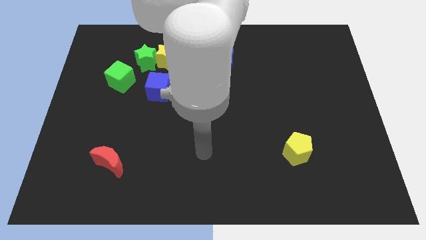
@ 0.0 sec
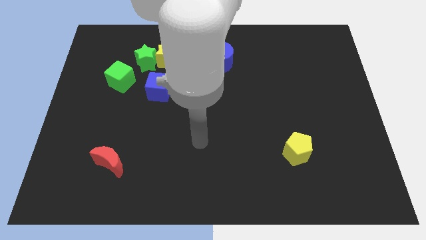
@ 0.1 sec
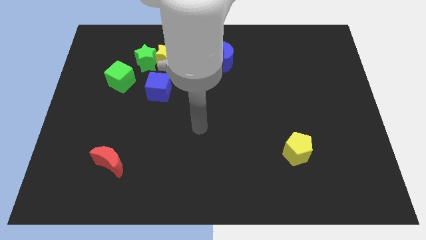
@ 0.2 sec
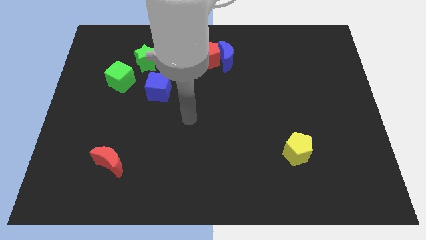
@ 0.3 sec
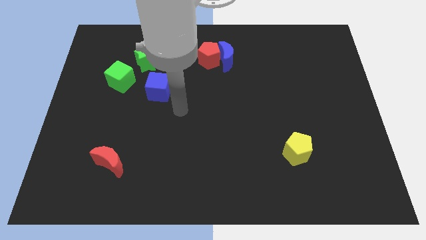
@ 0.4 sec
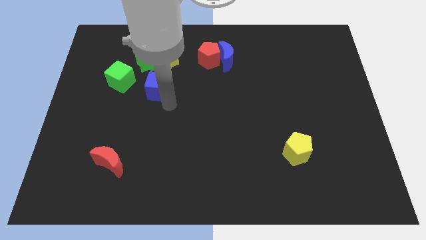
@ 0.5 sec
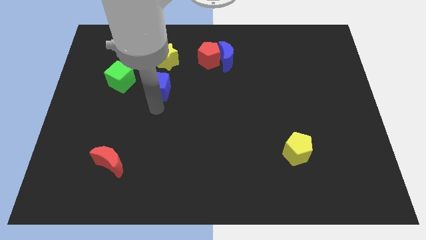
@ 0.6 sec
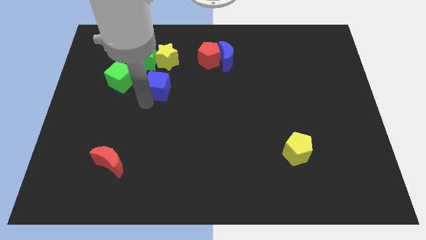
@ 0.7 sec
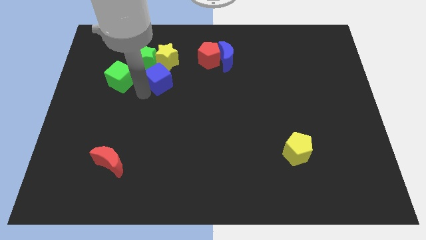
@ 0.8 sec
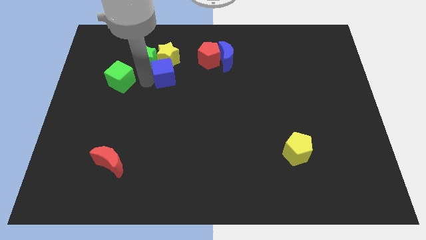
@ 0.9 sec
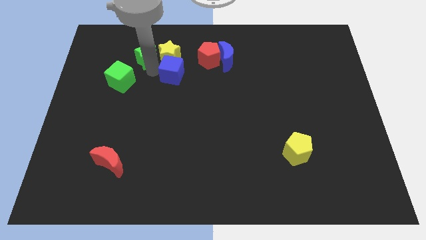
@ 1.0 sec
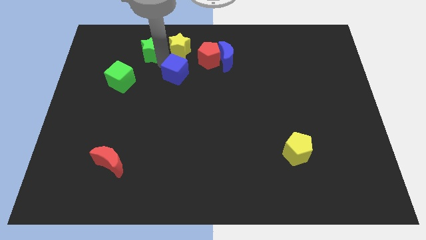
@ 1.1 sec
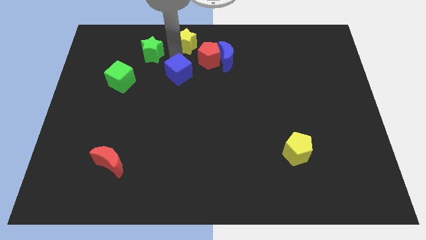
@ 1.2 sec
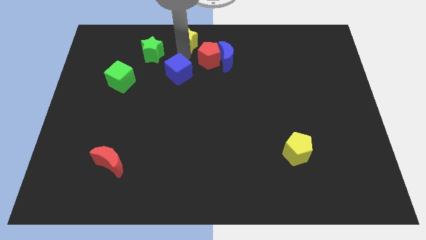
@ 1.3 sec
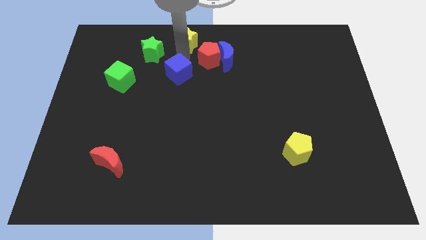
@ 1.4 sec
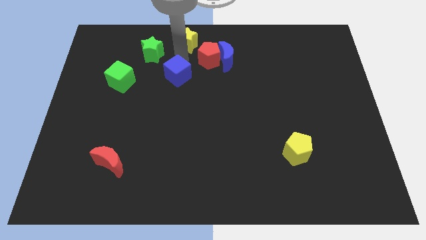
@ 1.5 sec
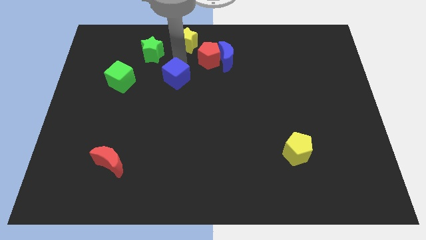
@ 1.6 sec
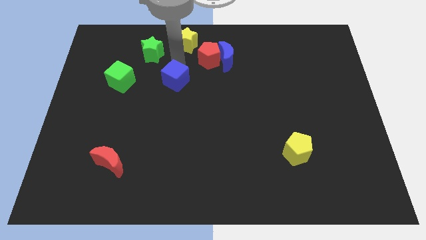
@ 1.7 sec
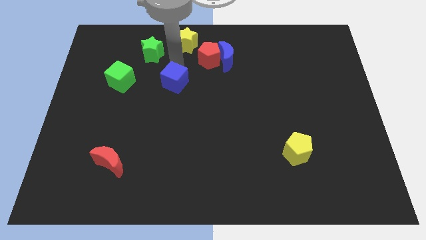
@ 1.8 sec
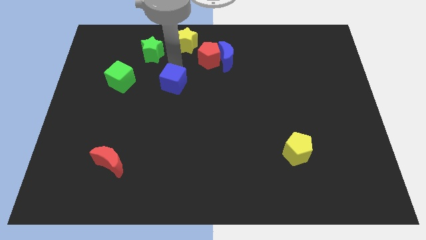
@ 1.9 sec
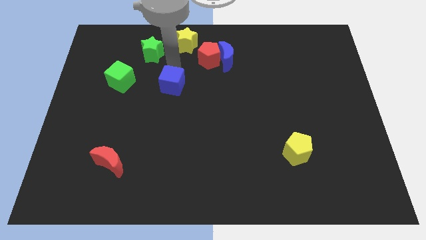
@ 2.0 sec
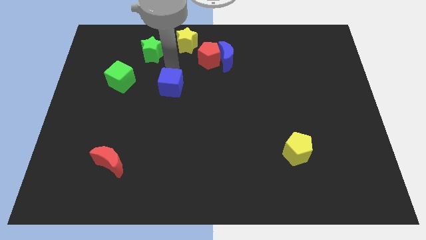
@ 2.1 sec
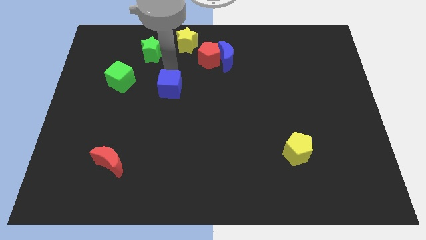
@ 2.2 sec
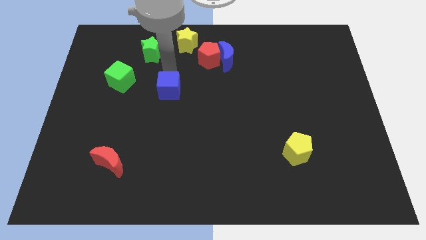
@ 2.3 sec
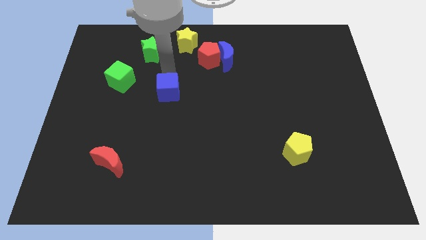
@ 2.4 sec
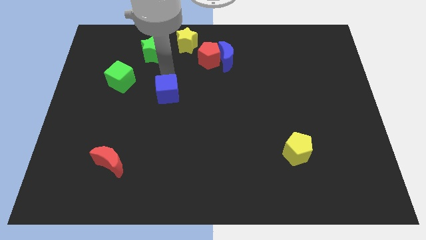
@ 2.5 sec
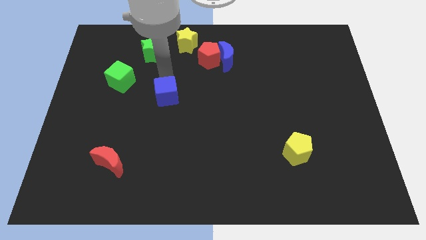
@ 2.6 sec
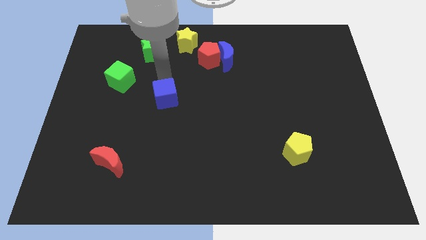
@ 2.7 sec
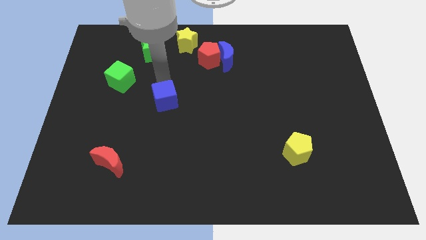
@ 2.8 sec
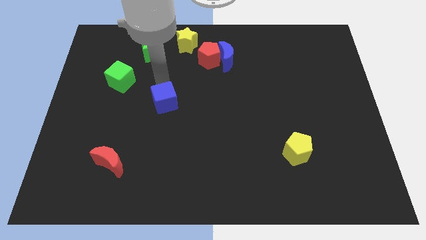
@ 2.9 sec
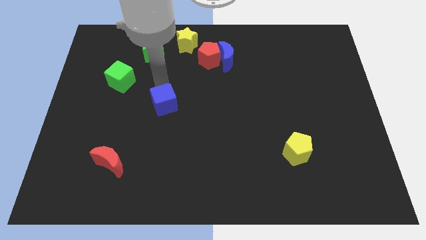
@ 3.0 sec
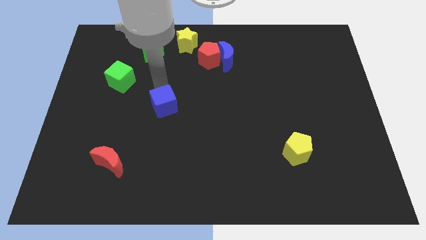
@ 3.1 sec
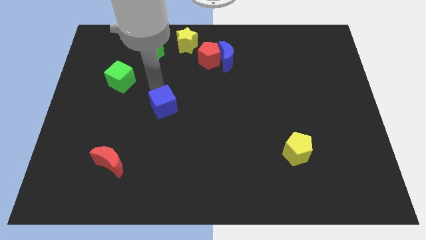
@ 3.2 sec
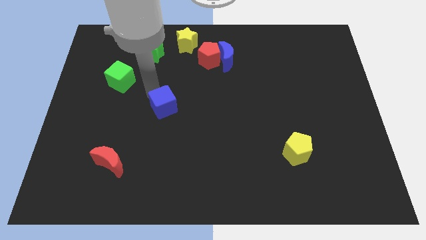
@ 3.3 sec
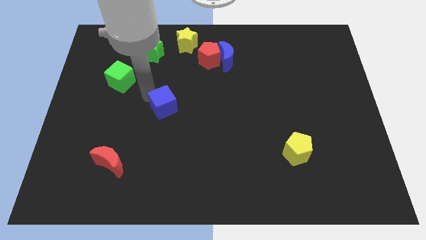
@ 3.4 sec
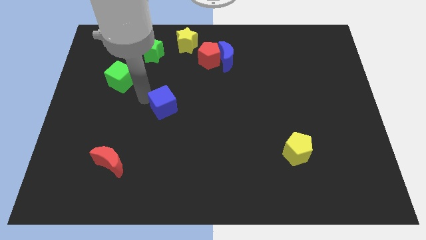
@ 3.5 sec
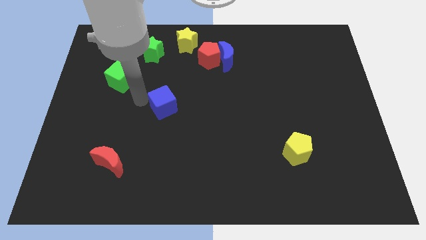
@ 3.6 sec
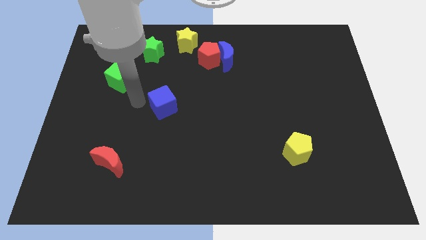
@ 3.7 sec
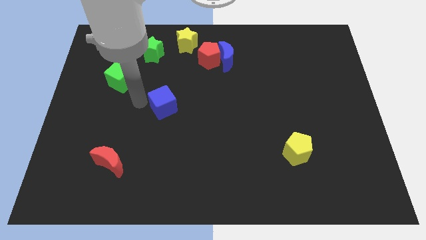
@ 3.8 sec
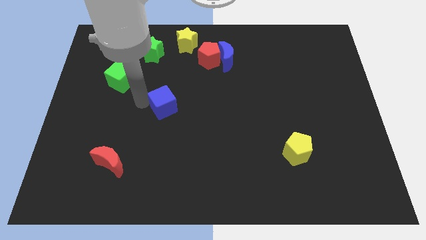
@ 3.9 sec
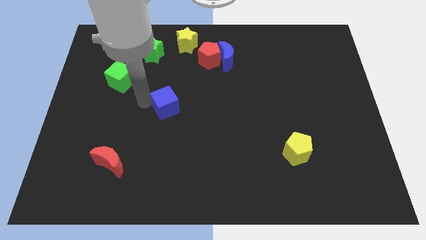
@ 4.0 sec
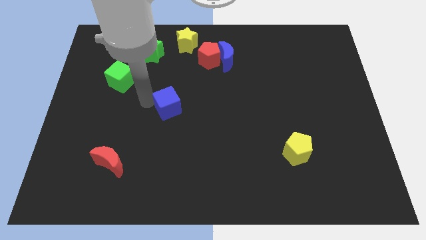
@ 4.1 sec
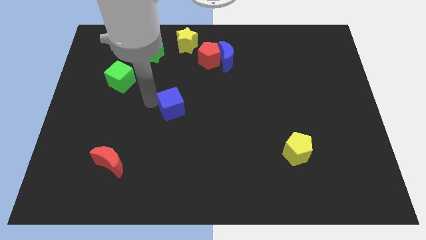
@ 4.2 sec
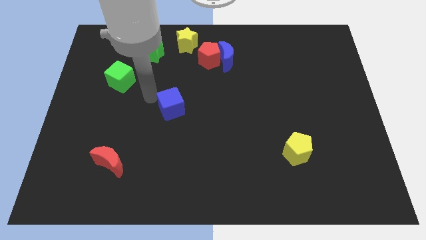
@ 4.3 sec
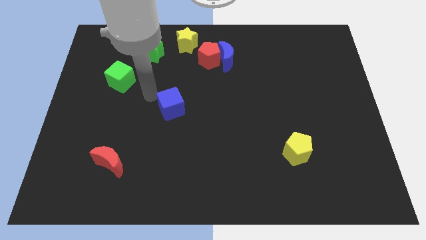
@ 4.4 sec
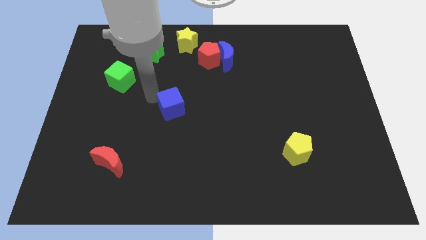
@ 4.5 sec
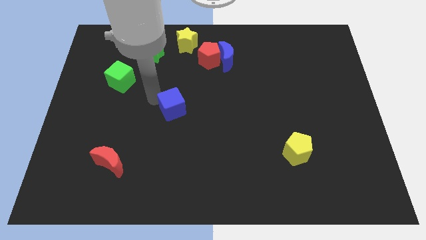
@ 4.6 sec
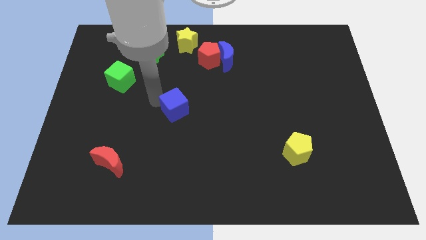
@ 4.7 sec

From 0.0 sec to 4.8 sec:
slightly push the blue cube down and then right

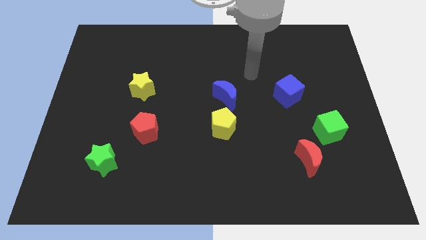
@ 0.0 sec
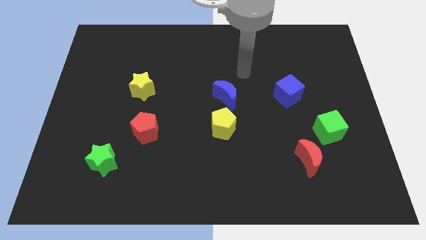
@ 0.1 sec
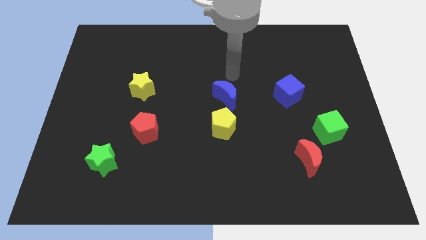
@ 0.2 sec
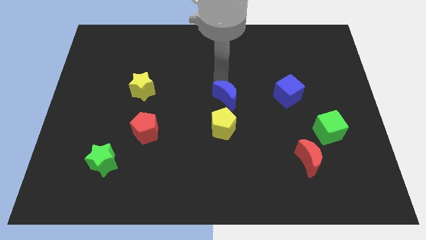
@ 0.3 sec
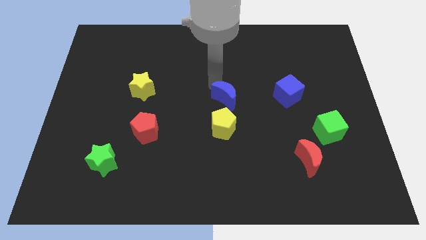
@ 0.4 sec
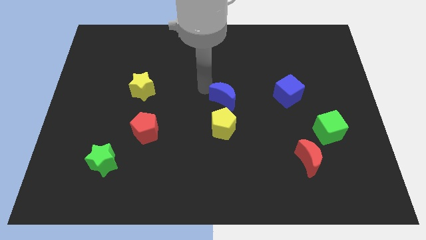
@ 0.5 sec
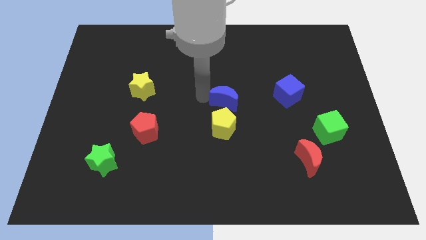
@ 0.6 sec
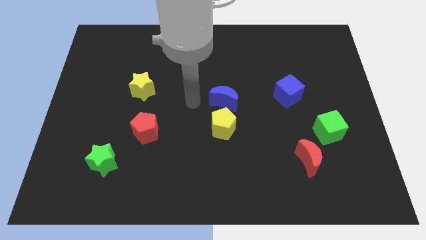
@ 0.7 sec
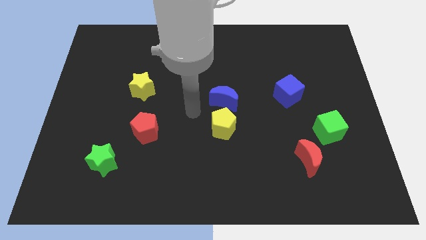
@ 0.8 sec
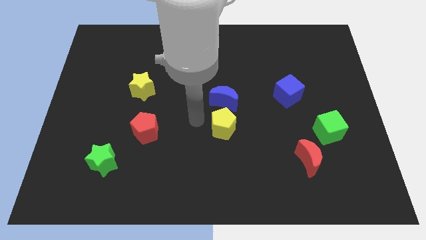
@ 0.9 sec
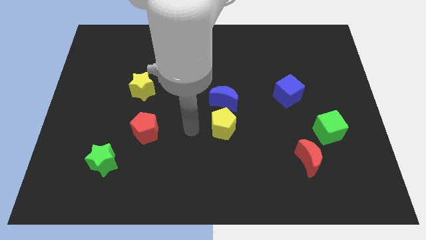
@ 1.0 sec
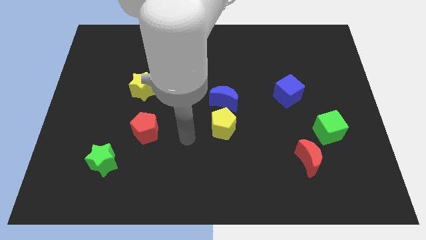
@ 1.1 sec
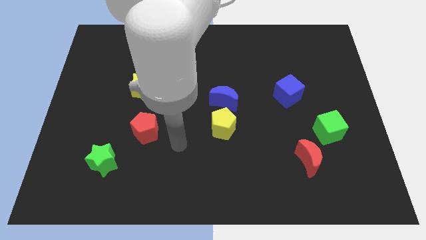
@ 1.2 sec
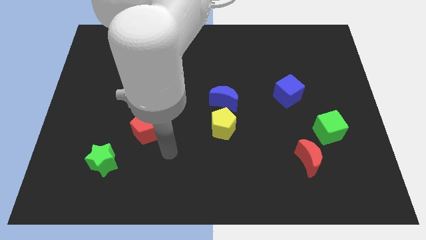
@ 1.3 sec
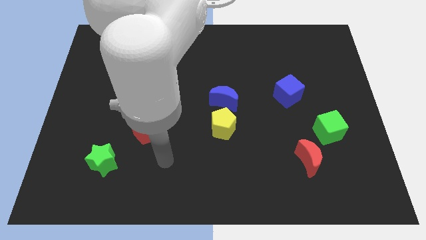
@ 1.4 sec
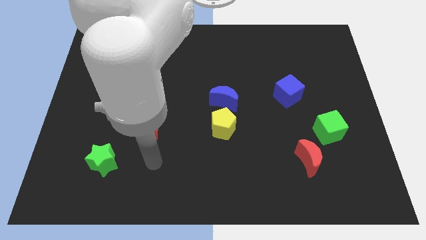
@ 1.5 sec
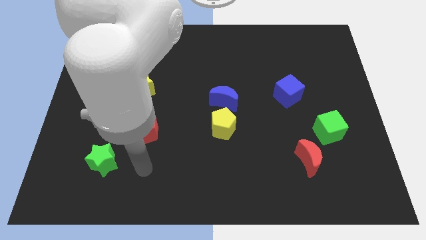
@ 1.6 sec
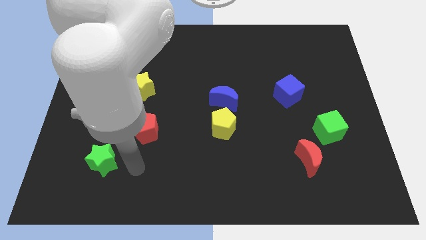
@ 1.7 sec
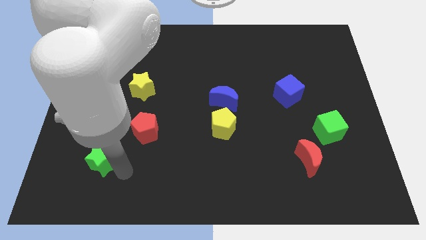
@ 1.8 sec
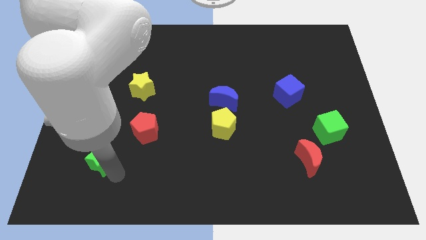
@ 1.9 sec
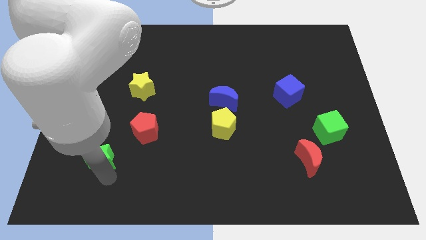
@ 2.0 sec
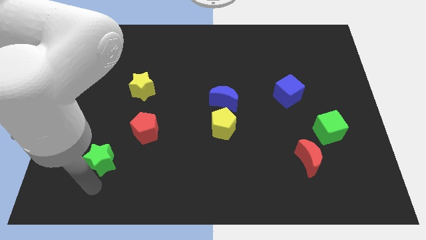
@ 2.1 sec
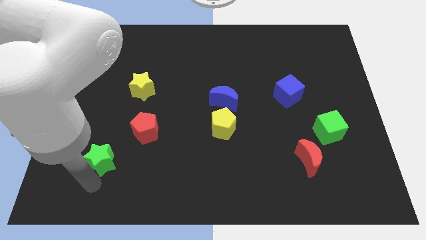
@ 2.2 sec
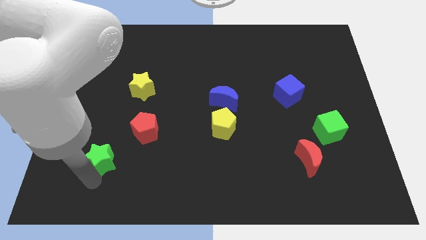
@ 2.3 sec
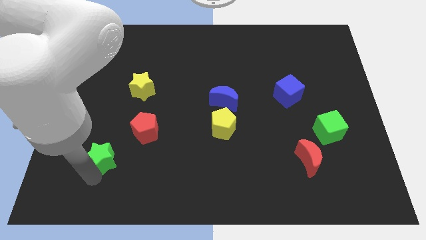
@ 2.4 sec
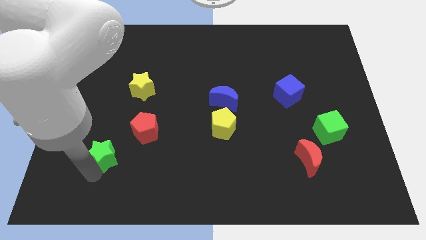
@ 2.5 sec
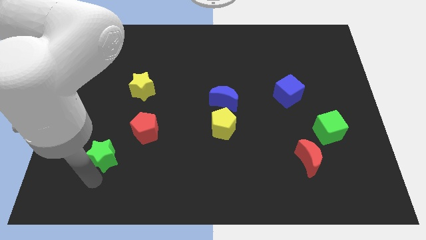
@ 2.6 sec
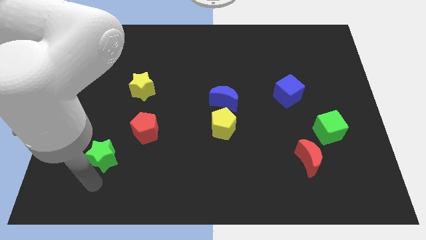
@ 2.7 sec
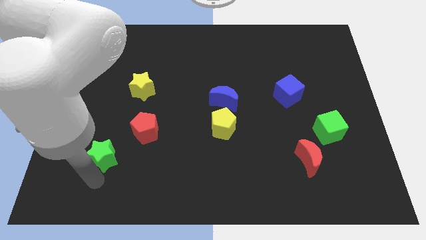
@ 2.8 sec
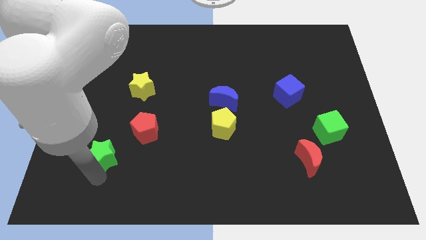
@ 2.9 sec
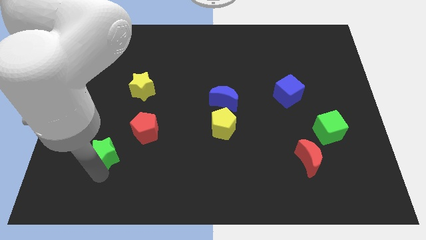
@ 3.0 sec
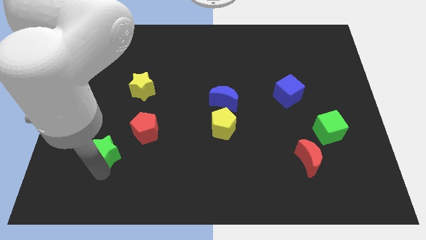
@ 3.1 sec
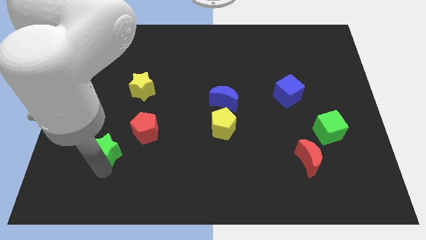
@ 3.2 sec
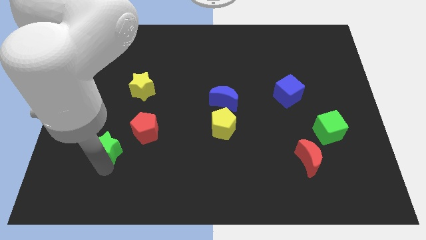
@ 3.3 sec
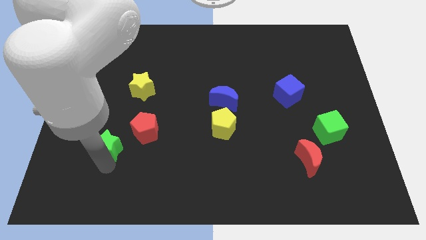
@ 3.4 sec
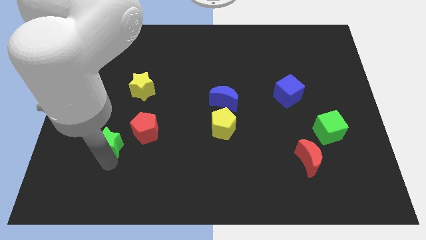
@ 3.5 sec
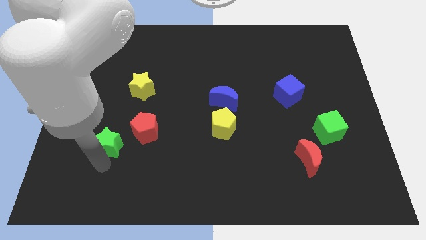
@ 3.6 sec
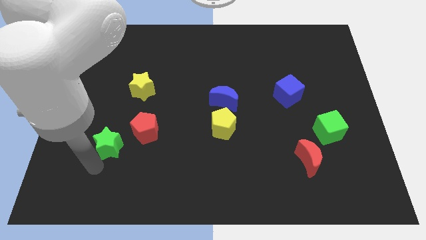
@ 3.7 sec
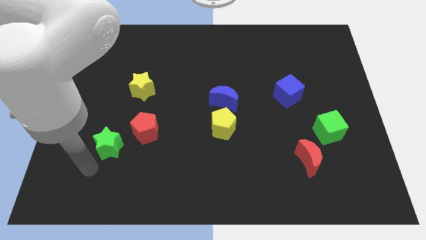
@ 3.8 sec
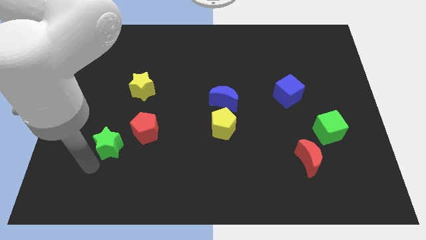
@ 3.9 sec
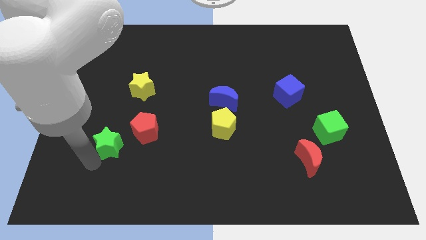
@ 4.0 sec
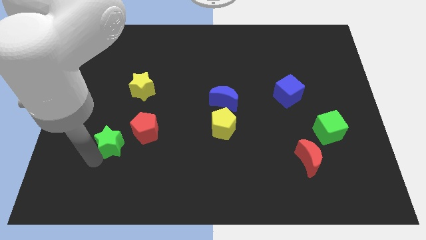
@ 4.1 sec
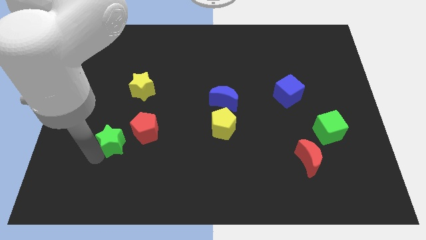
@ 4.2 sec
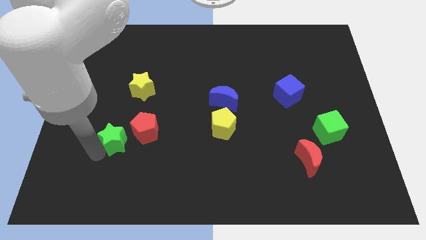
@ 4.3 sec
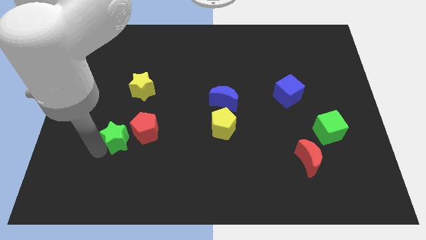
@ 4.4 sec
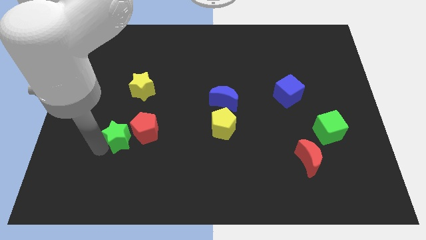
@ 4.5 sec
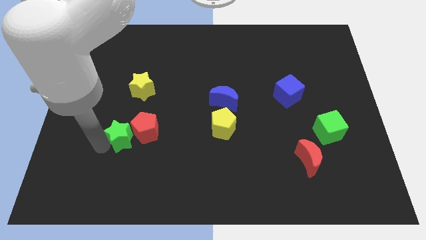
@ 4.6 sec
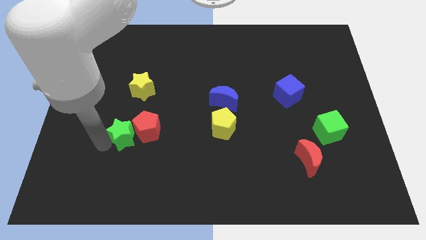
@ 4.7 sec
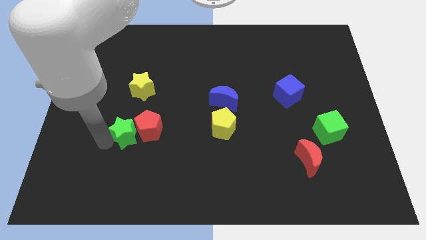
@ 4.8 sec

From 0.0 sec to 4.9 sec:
slightly slide the green star up and then to the right
